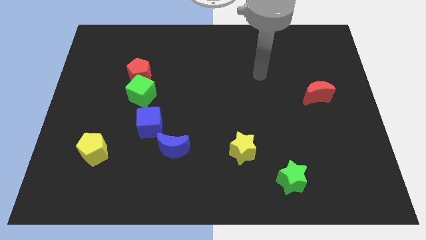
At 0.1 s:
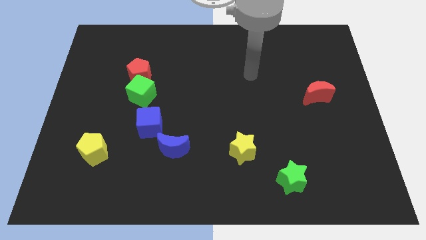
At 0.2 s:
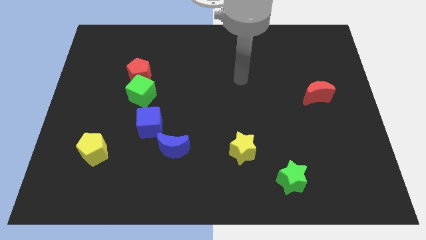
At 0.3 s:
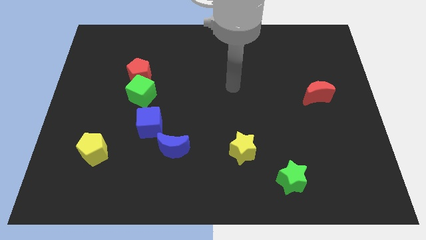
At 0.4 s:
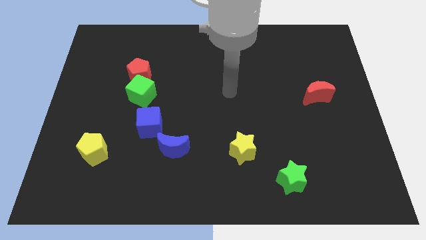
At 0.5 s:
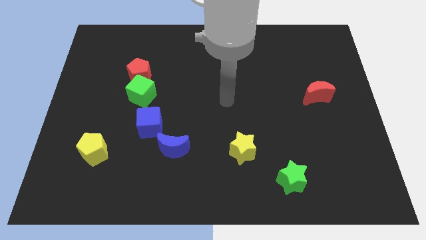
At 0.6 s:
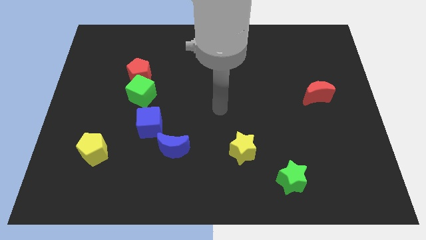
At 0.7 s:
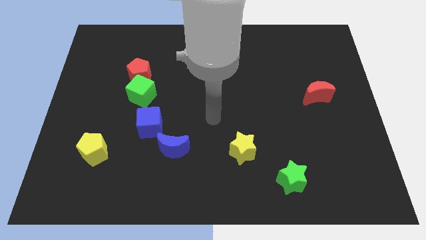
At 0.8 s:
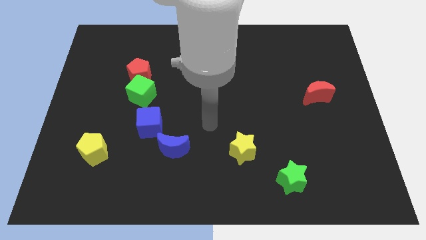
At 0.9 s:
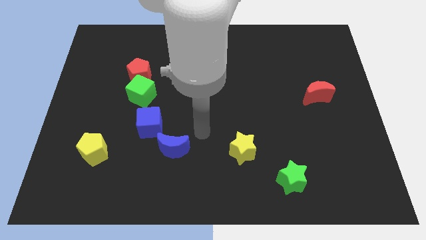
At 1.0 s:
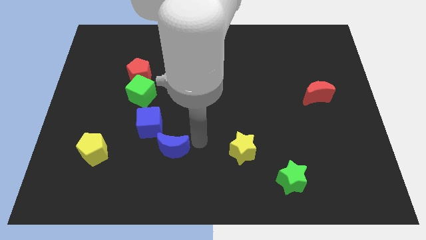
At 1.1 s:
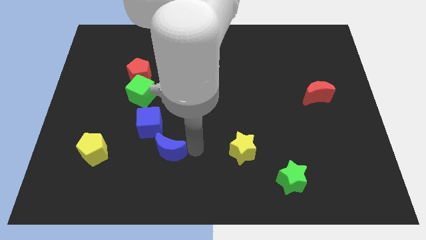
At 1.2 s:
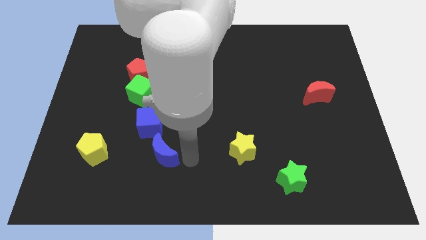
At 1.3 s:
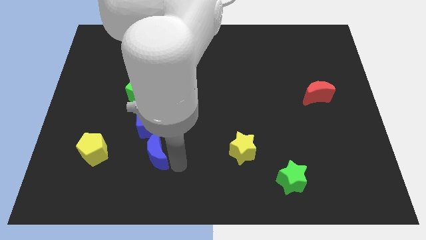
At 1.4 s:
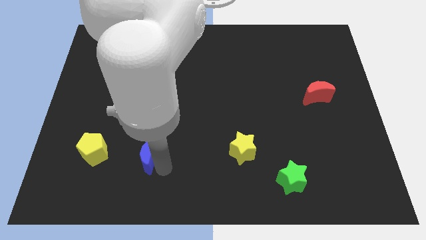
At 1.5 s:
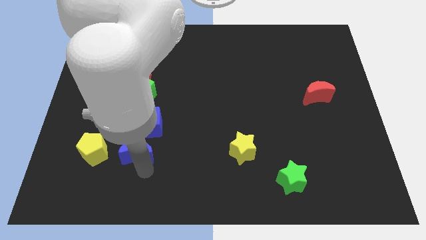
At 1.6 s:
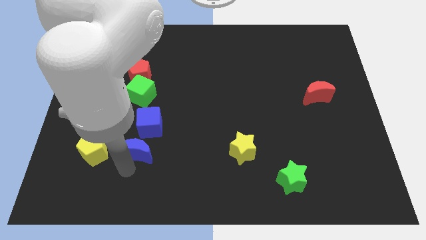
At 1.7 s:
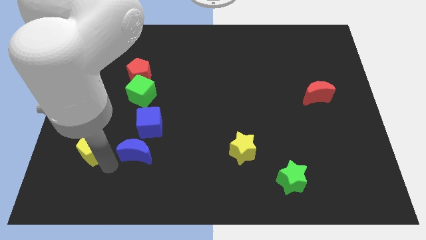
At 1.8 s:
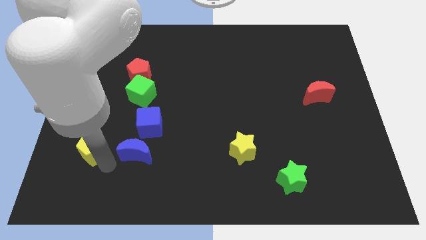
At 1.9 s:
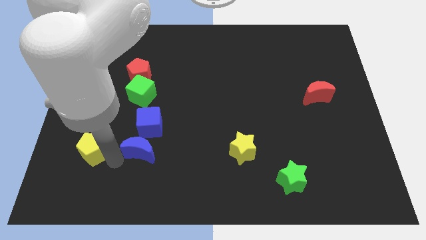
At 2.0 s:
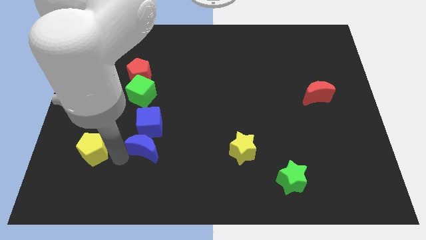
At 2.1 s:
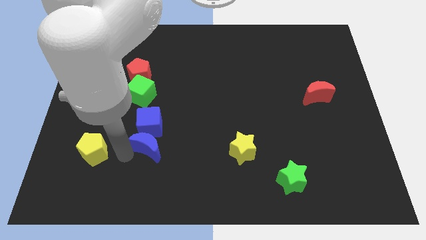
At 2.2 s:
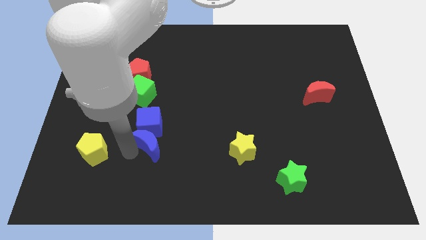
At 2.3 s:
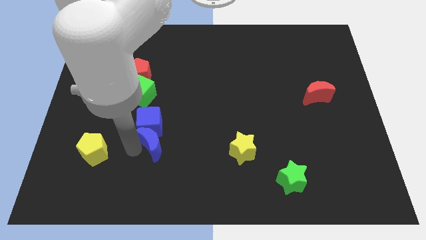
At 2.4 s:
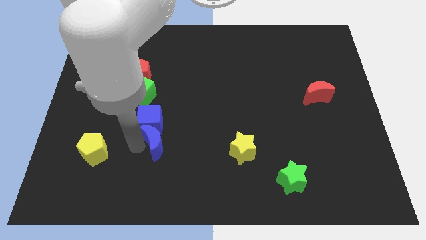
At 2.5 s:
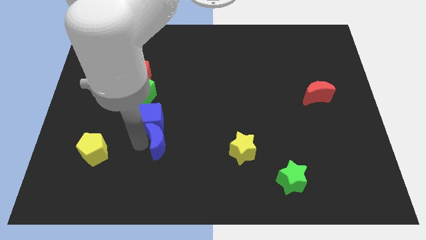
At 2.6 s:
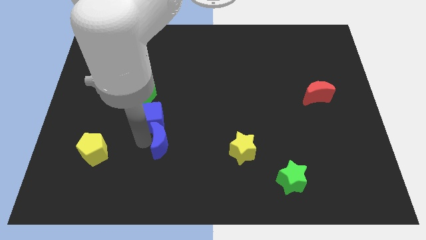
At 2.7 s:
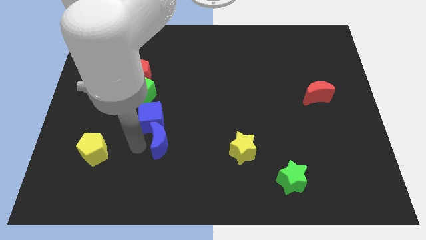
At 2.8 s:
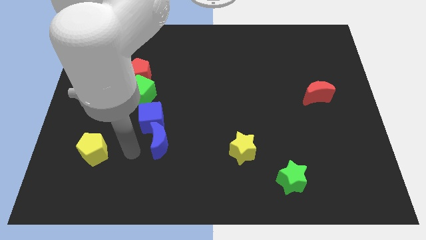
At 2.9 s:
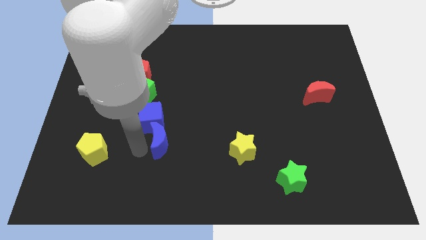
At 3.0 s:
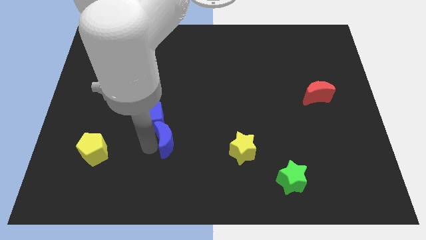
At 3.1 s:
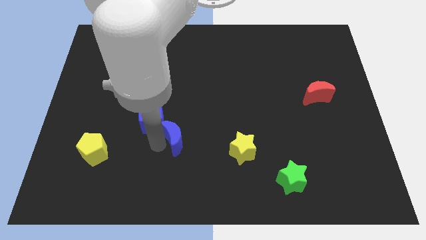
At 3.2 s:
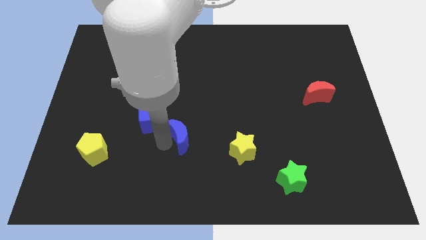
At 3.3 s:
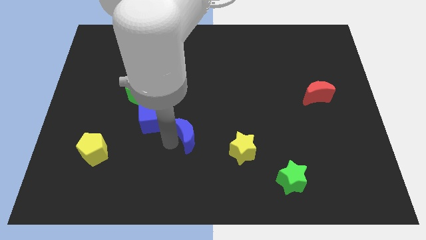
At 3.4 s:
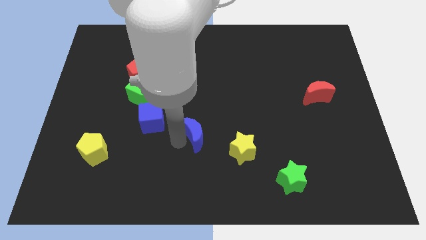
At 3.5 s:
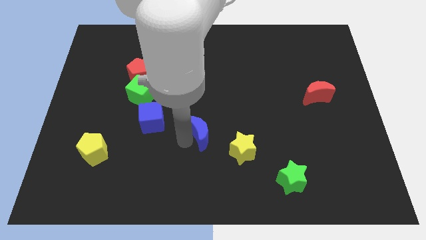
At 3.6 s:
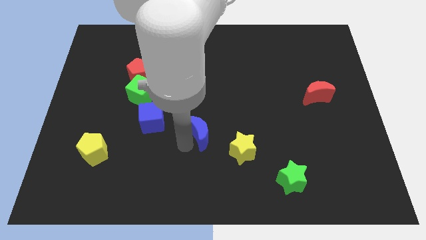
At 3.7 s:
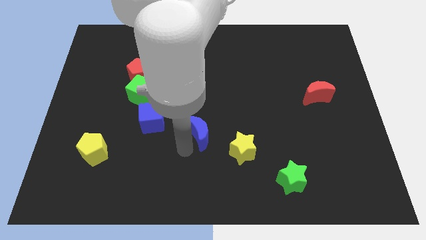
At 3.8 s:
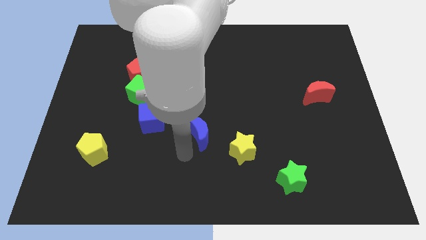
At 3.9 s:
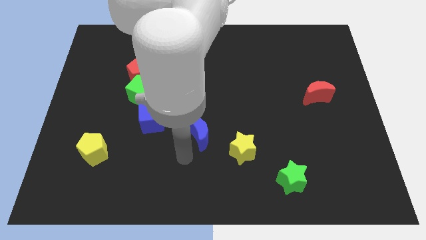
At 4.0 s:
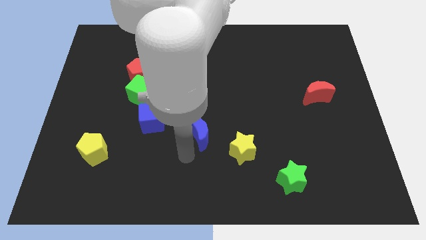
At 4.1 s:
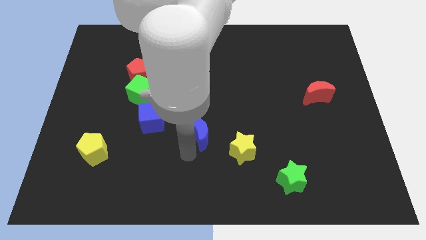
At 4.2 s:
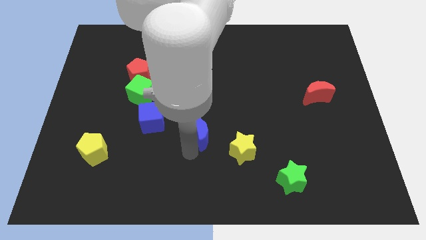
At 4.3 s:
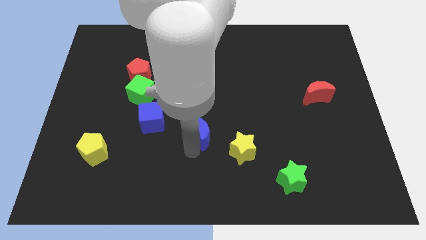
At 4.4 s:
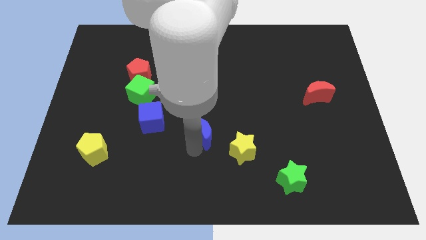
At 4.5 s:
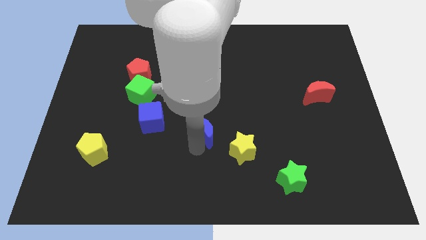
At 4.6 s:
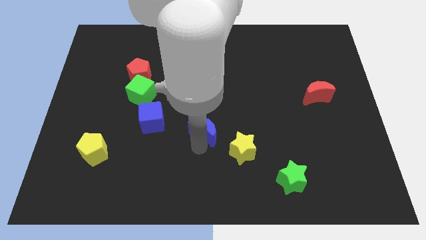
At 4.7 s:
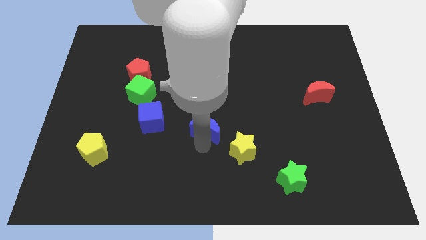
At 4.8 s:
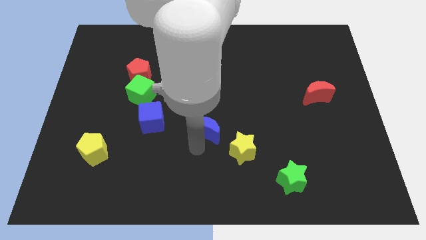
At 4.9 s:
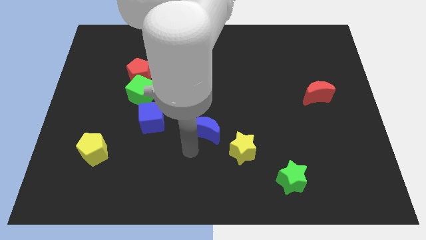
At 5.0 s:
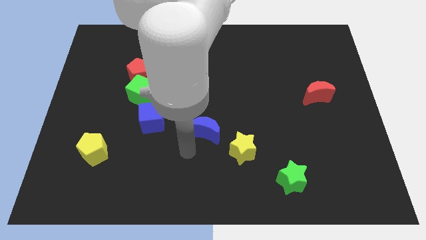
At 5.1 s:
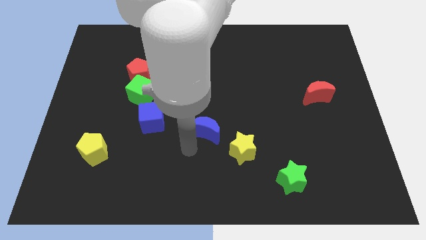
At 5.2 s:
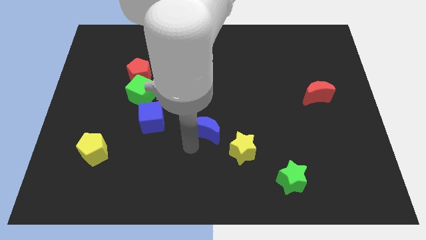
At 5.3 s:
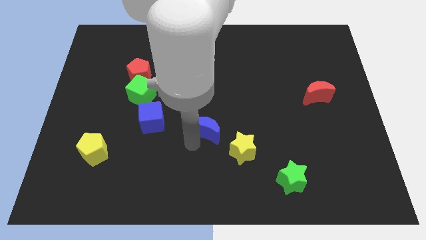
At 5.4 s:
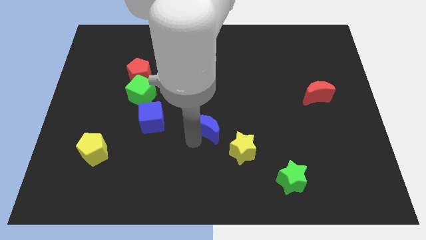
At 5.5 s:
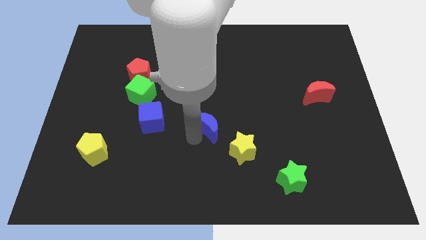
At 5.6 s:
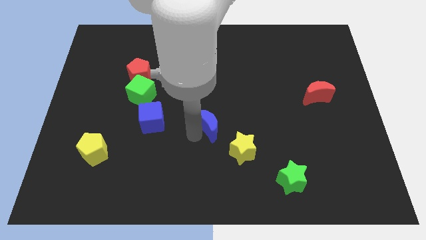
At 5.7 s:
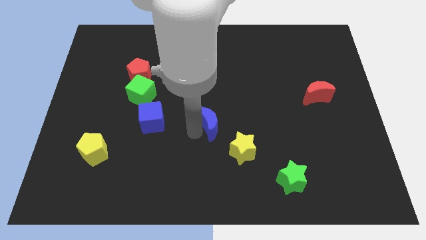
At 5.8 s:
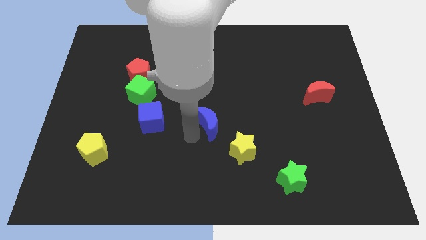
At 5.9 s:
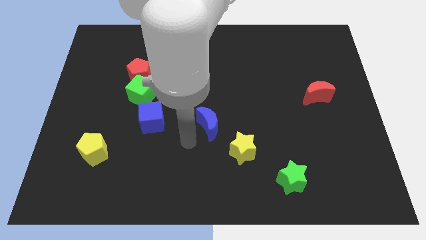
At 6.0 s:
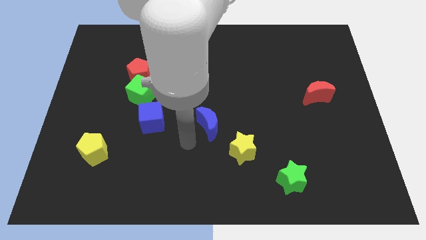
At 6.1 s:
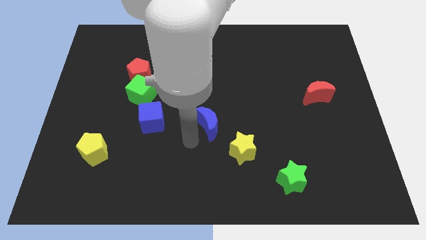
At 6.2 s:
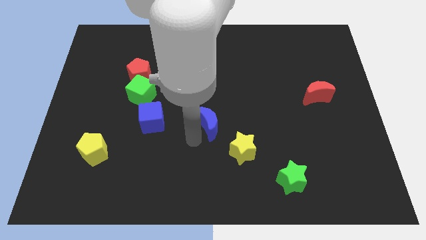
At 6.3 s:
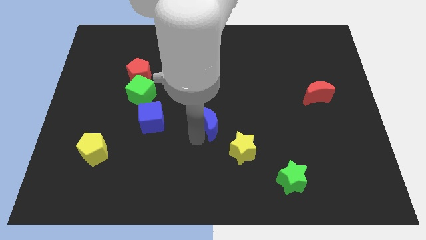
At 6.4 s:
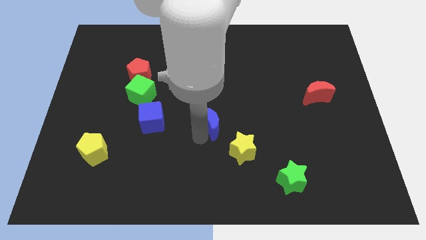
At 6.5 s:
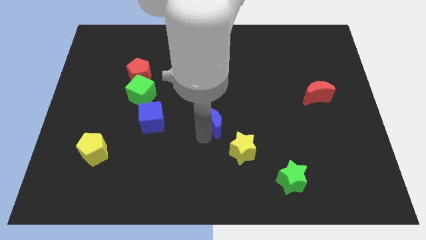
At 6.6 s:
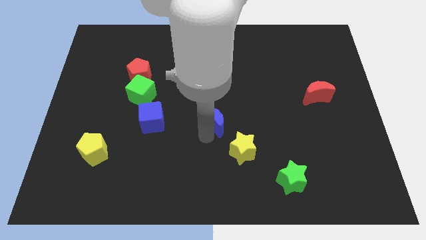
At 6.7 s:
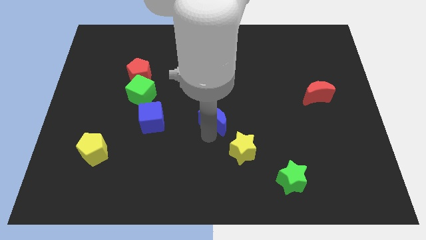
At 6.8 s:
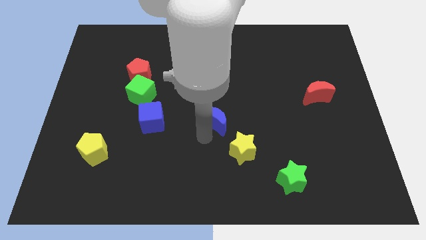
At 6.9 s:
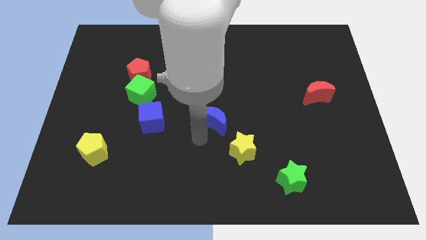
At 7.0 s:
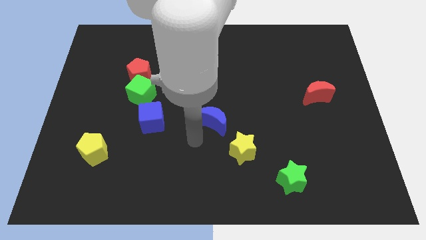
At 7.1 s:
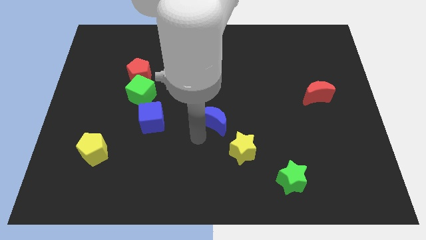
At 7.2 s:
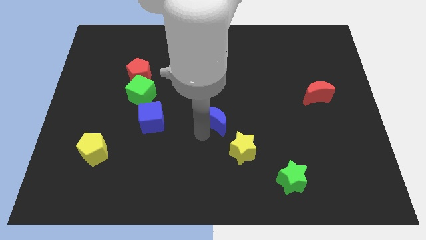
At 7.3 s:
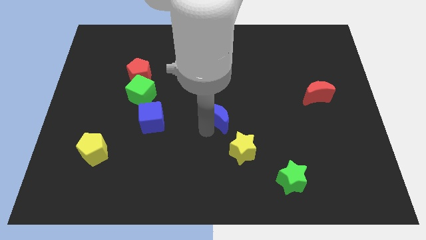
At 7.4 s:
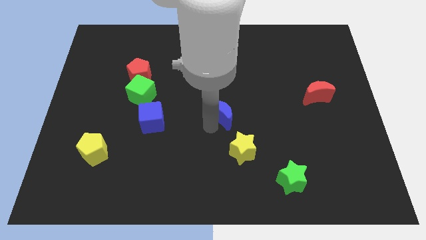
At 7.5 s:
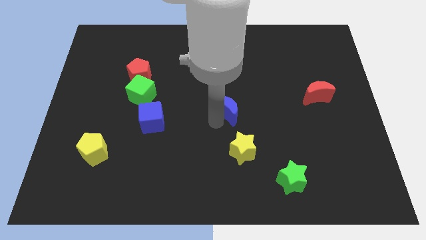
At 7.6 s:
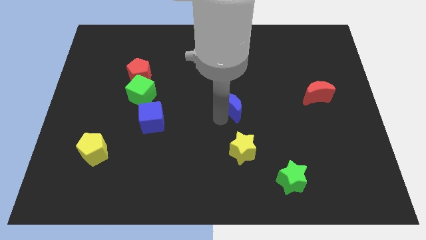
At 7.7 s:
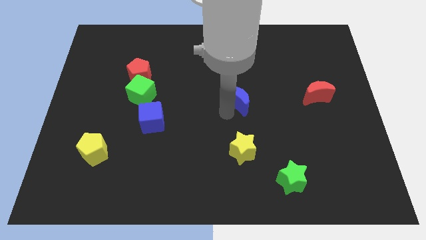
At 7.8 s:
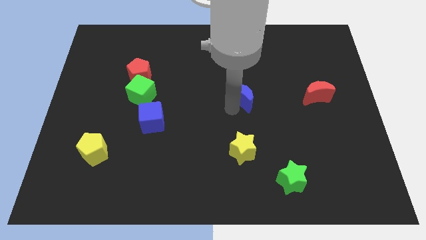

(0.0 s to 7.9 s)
move the blue moon upwards and then right

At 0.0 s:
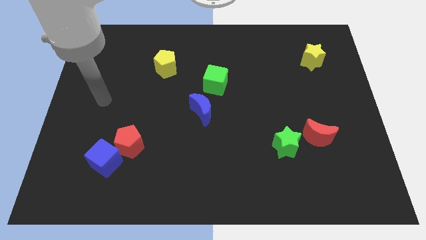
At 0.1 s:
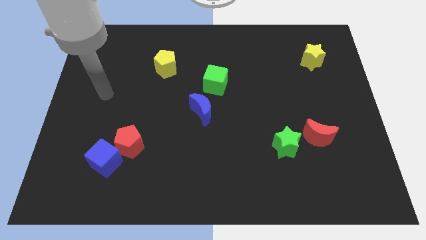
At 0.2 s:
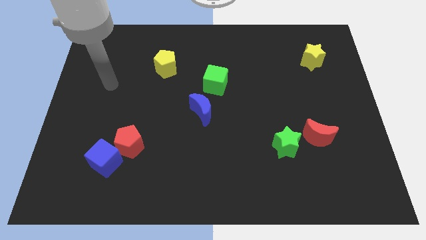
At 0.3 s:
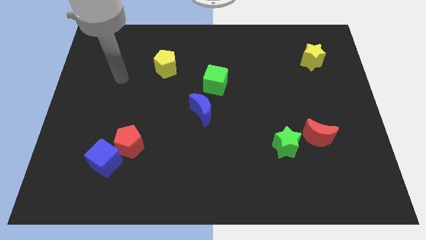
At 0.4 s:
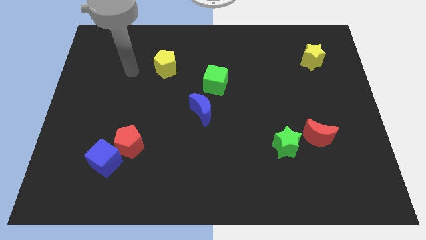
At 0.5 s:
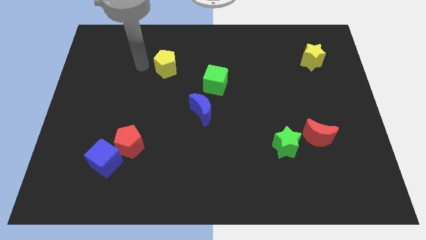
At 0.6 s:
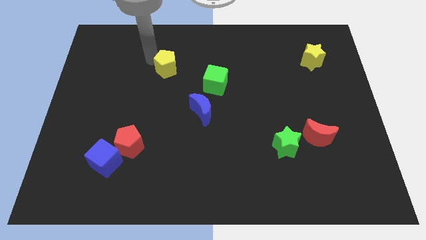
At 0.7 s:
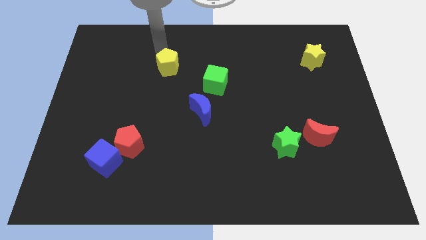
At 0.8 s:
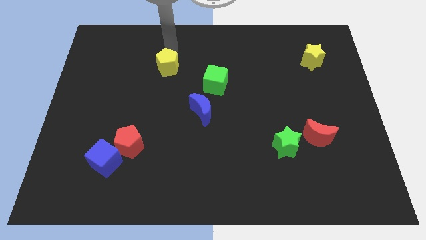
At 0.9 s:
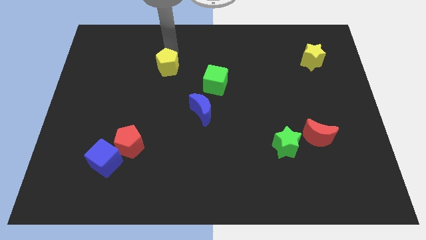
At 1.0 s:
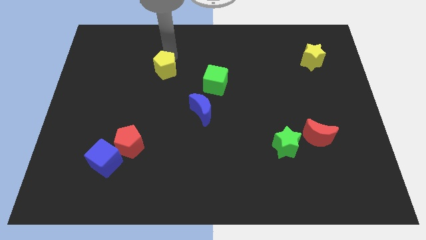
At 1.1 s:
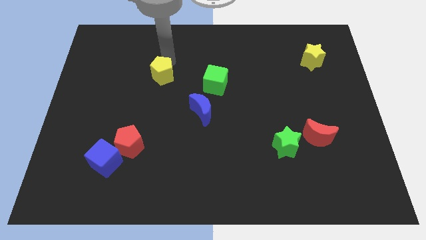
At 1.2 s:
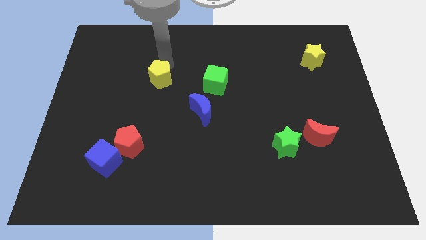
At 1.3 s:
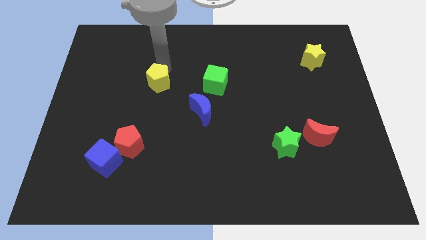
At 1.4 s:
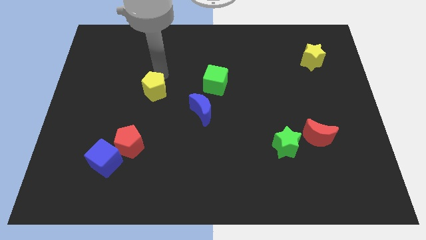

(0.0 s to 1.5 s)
slide the yellow pentagon a little downwards
